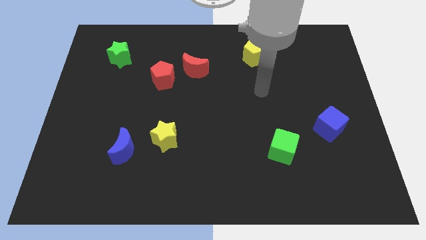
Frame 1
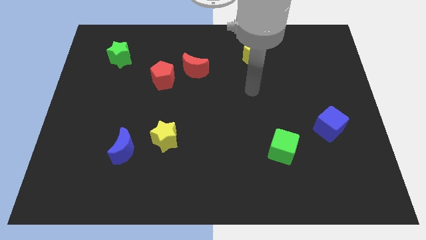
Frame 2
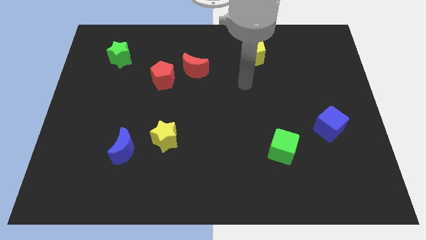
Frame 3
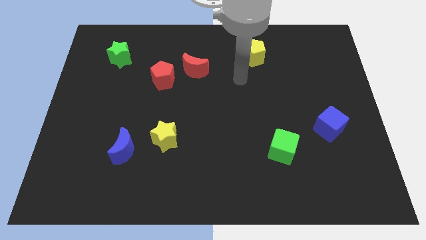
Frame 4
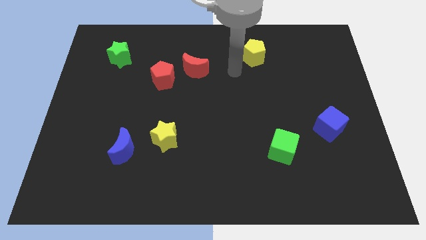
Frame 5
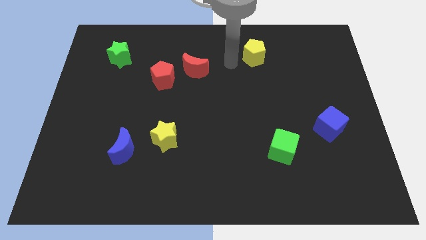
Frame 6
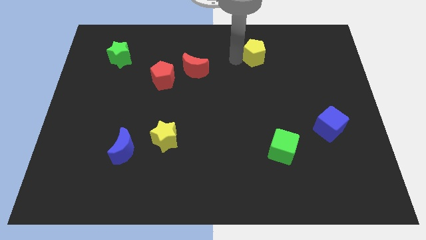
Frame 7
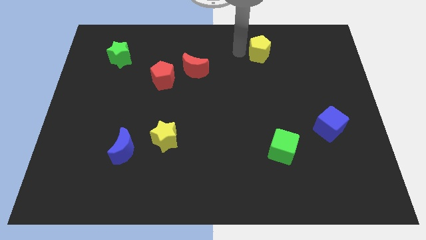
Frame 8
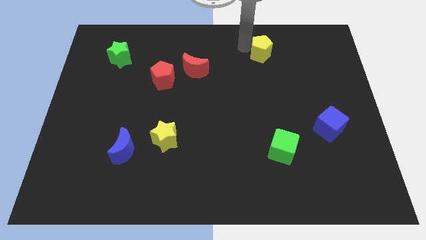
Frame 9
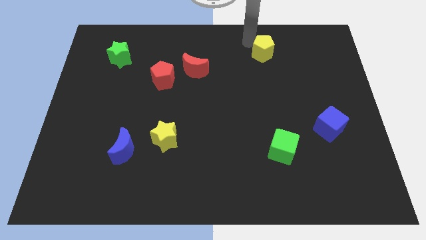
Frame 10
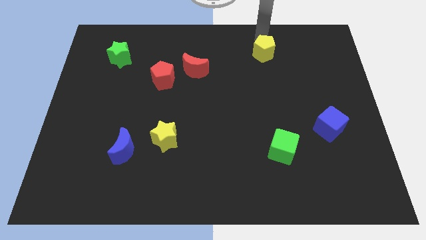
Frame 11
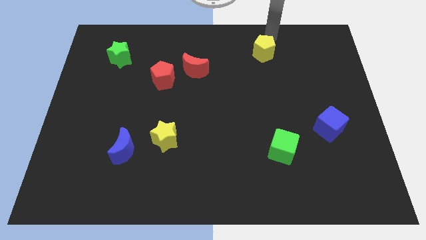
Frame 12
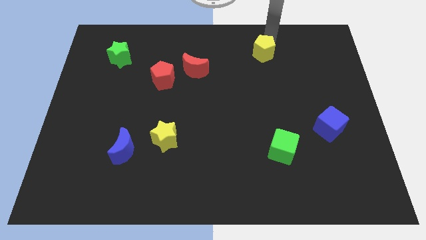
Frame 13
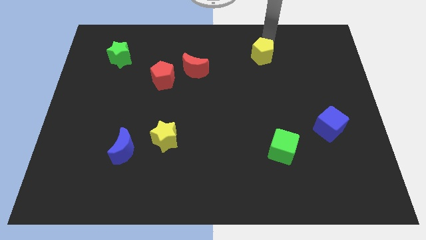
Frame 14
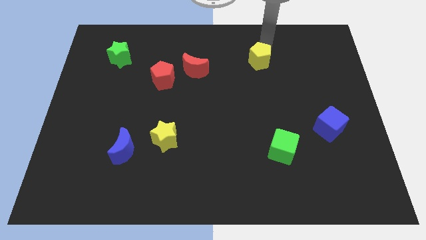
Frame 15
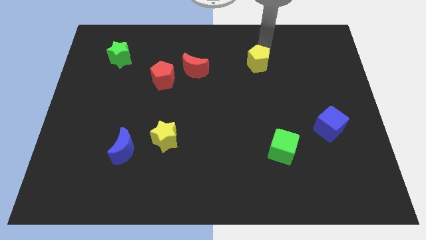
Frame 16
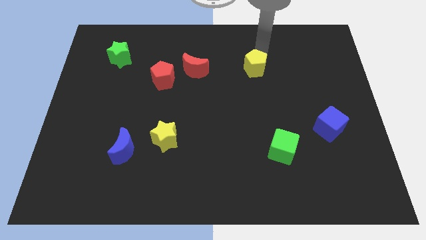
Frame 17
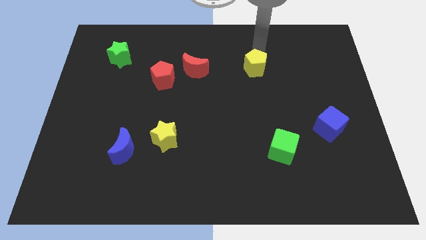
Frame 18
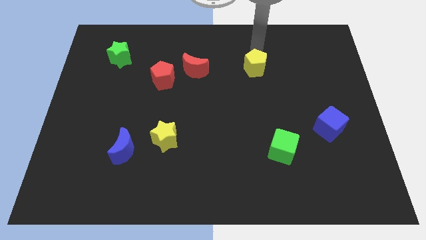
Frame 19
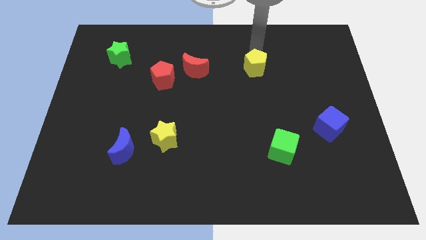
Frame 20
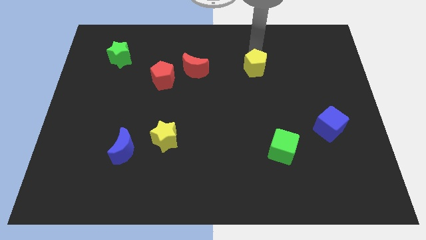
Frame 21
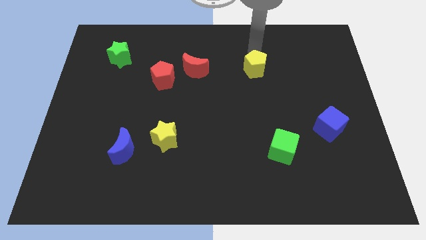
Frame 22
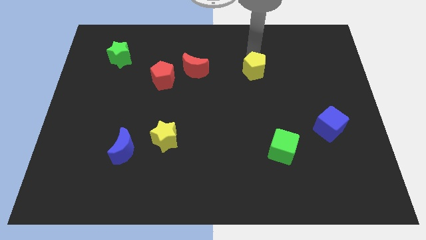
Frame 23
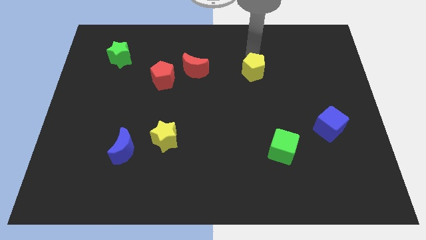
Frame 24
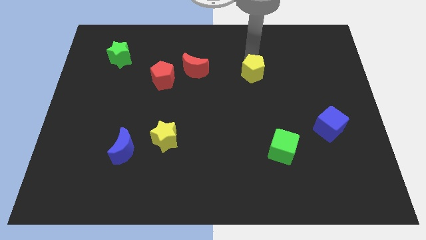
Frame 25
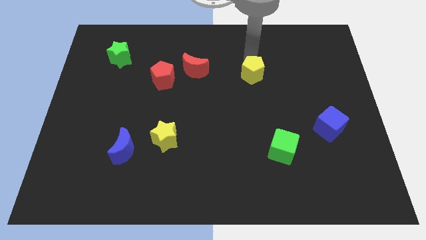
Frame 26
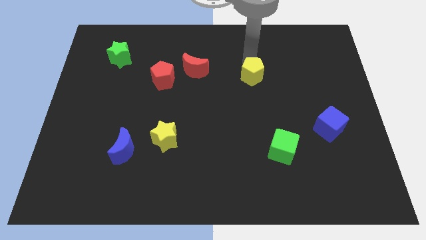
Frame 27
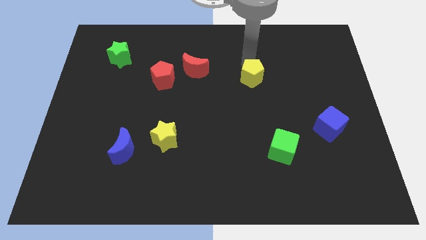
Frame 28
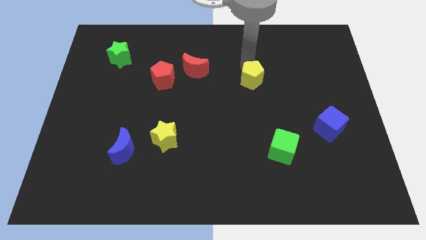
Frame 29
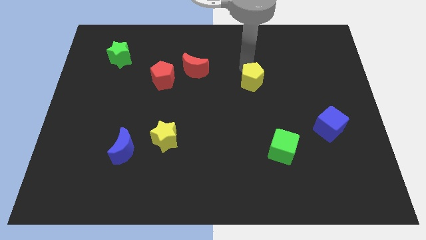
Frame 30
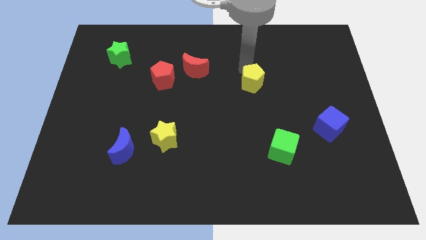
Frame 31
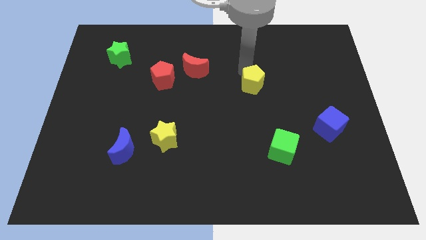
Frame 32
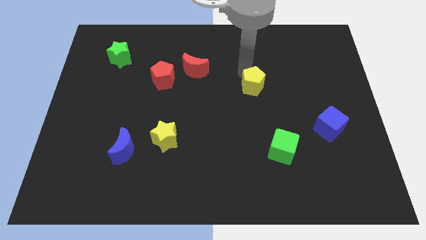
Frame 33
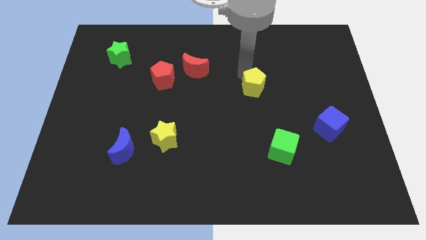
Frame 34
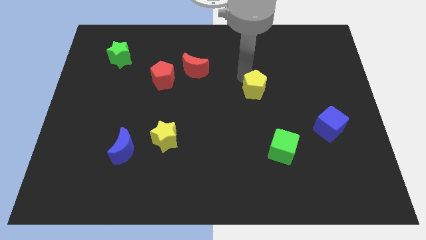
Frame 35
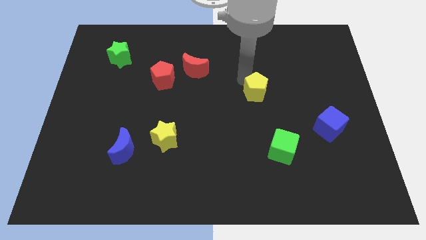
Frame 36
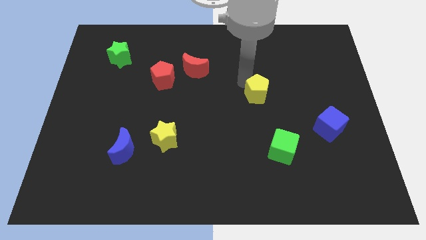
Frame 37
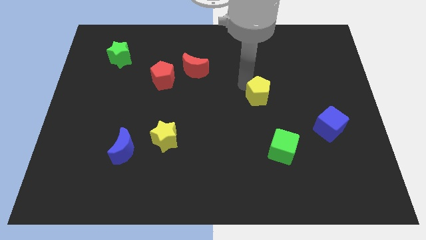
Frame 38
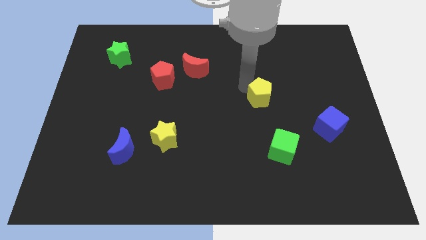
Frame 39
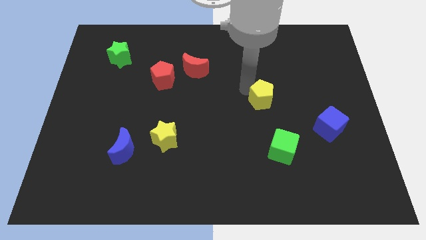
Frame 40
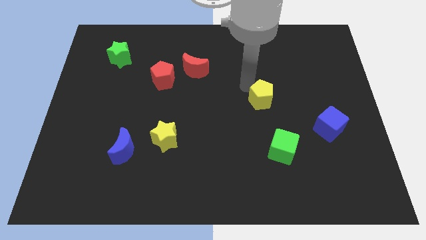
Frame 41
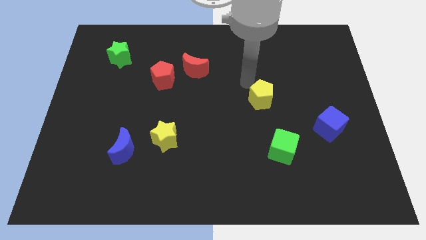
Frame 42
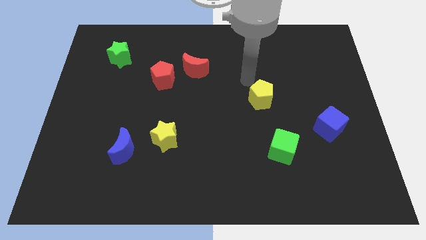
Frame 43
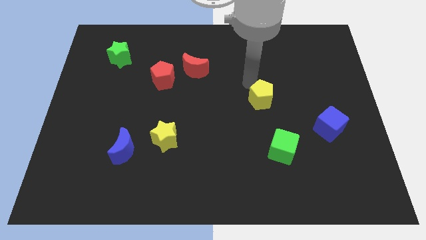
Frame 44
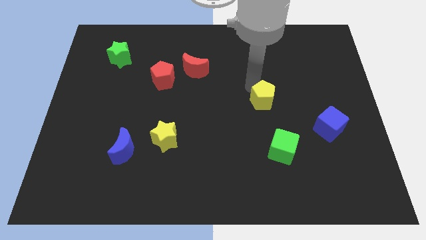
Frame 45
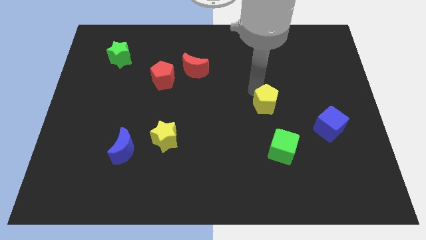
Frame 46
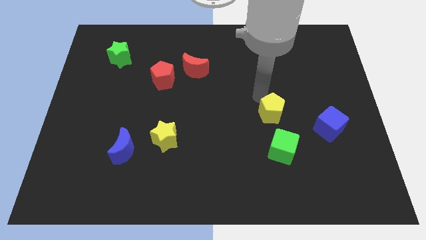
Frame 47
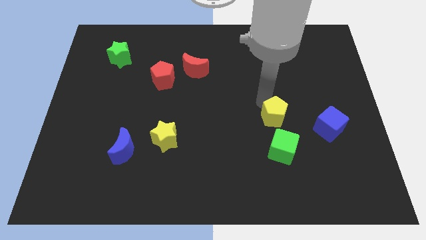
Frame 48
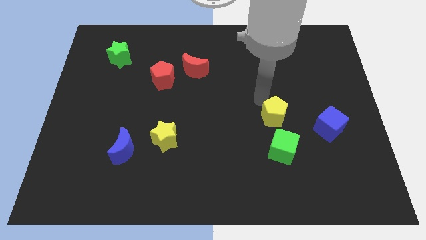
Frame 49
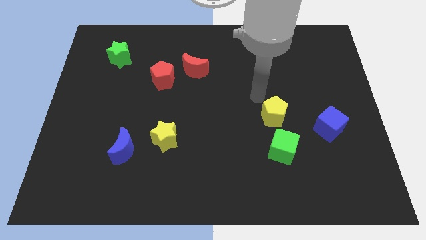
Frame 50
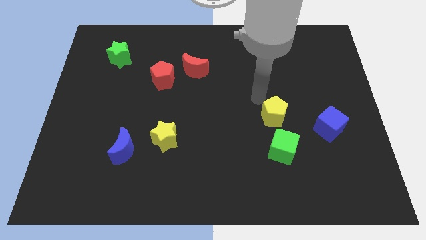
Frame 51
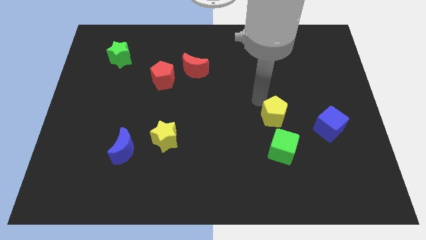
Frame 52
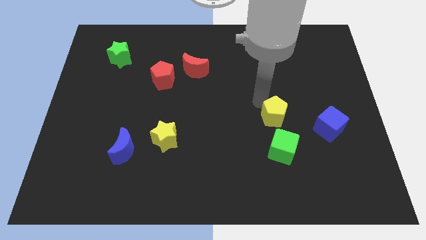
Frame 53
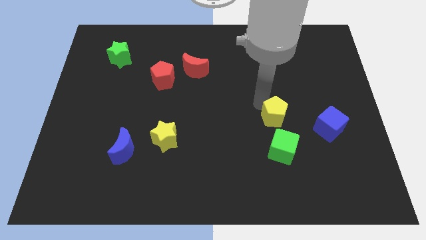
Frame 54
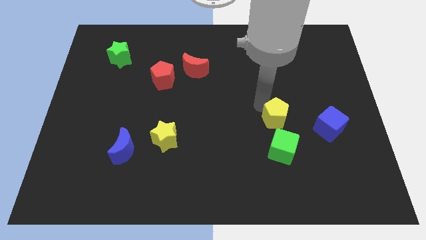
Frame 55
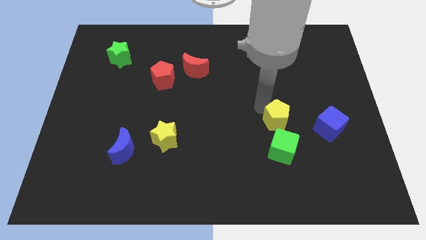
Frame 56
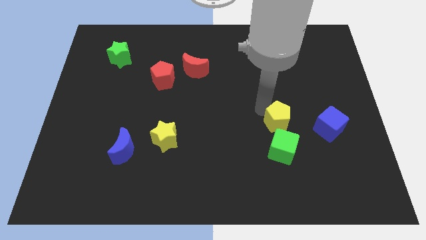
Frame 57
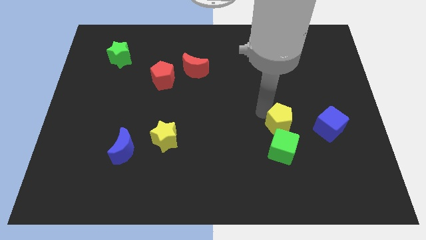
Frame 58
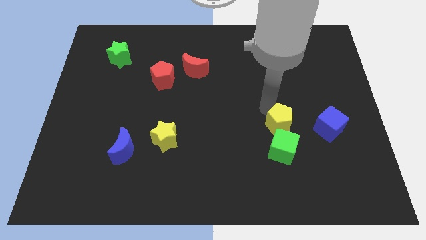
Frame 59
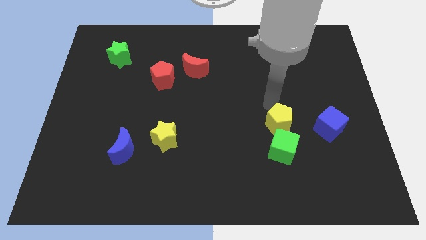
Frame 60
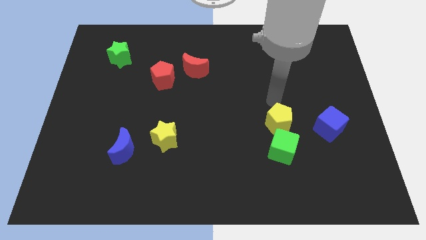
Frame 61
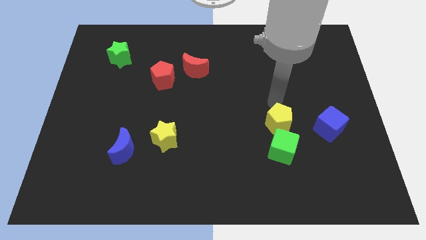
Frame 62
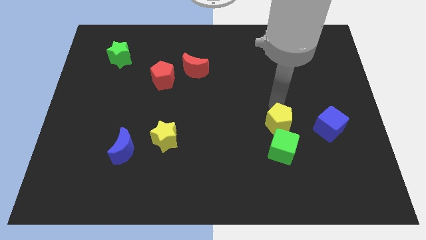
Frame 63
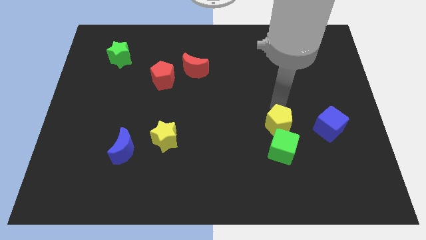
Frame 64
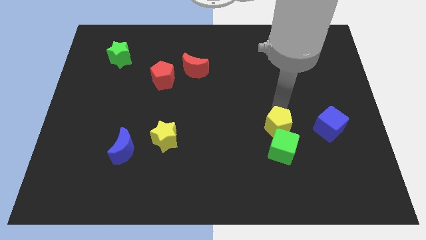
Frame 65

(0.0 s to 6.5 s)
push the yellow pentagon to the green cube

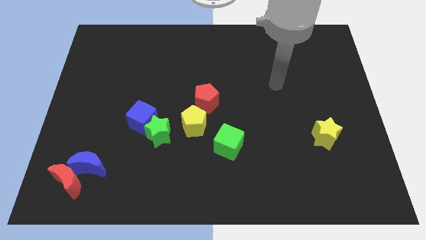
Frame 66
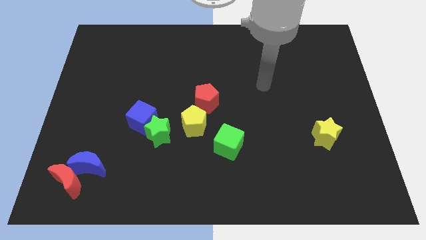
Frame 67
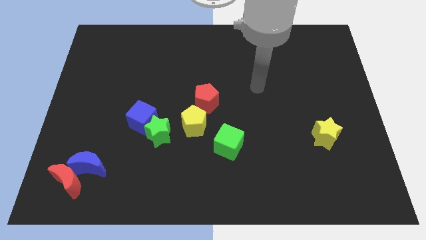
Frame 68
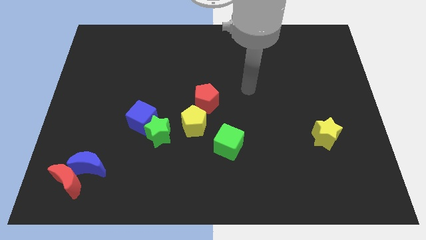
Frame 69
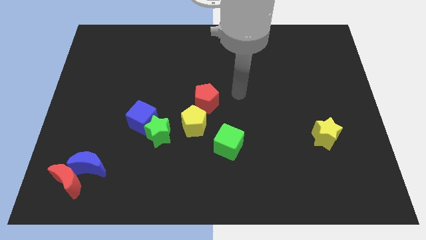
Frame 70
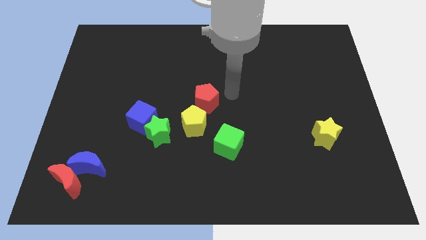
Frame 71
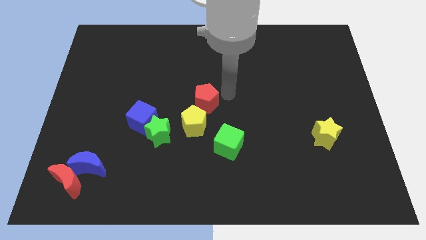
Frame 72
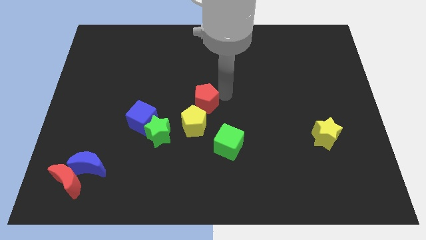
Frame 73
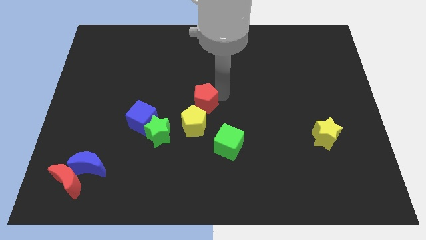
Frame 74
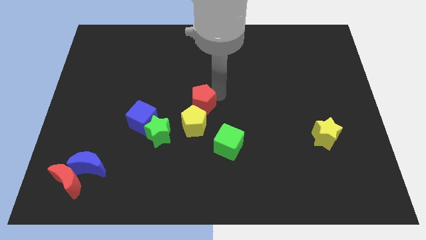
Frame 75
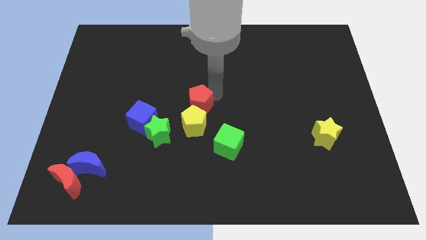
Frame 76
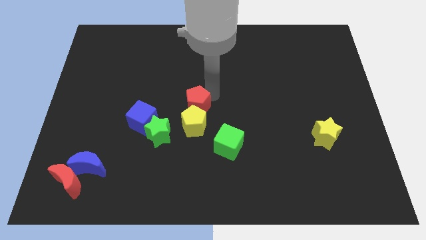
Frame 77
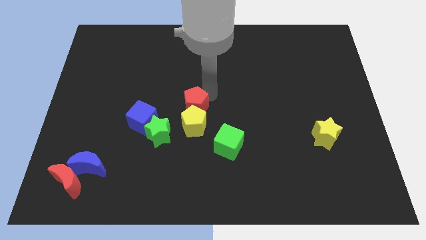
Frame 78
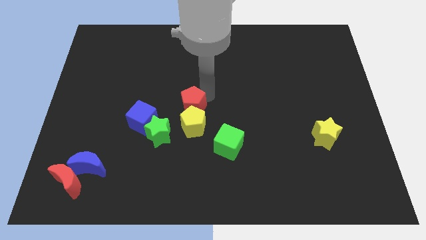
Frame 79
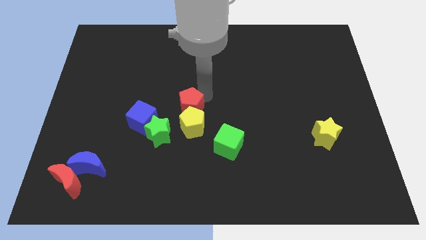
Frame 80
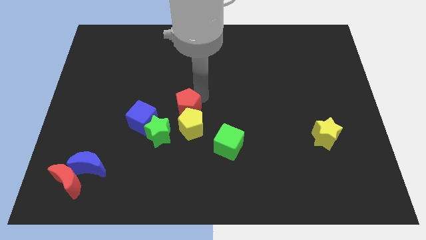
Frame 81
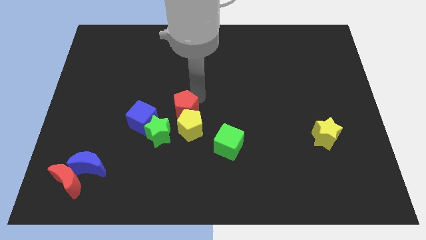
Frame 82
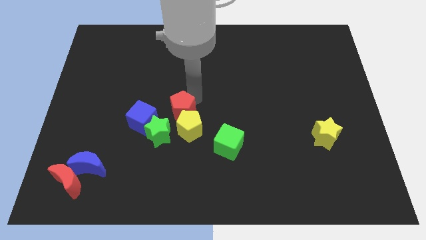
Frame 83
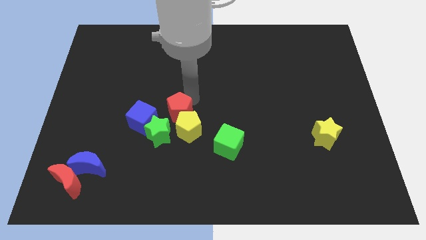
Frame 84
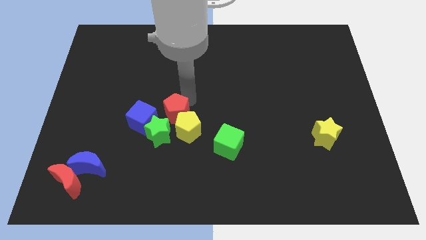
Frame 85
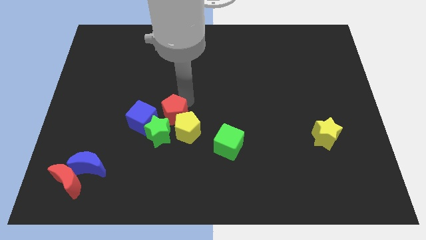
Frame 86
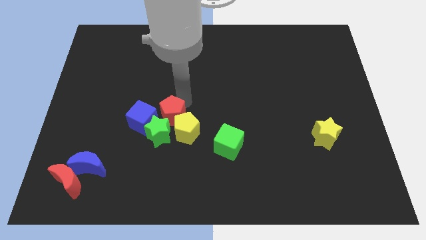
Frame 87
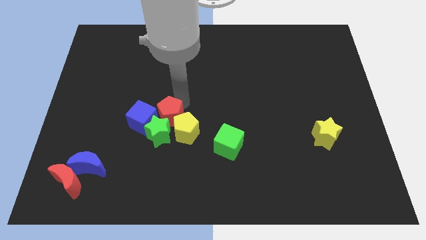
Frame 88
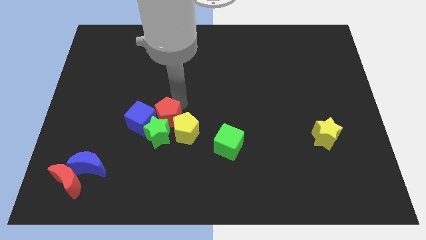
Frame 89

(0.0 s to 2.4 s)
put the red pentagon towards the blue cube
